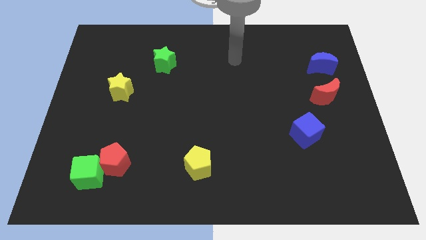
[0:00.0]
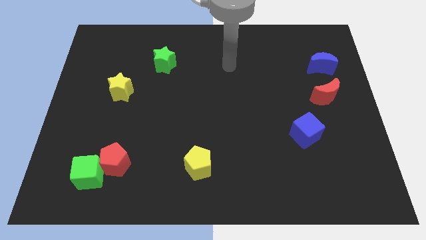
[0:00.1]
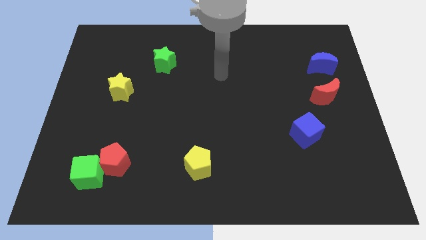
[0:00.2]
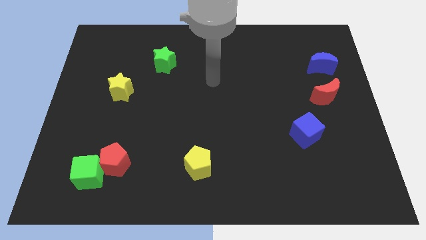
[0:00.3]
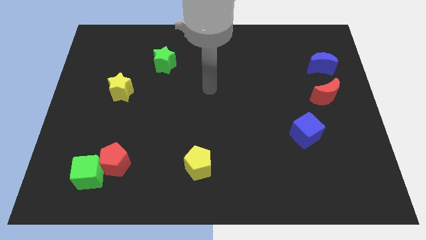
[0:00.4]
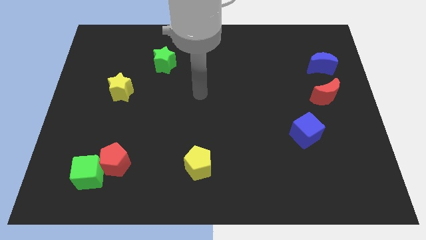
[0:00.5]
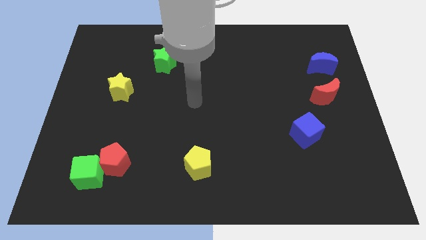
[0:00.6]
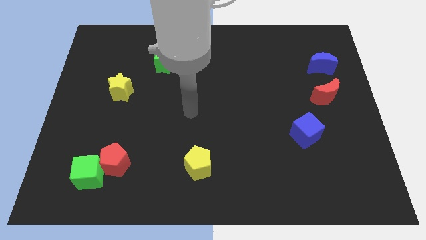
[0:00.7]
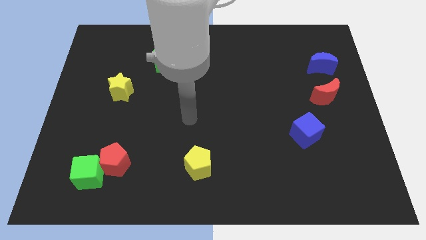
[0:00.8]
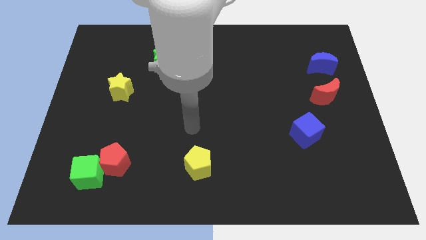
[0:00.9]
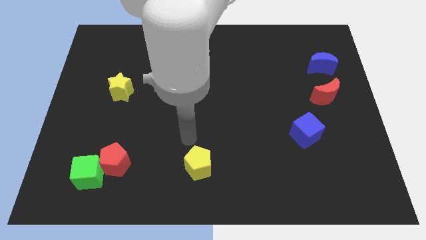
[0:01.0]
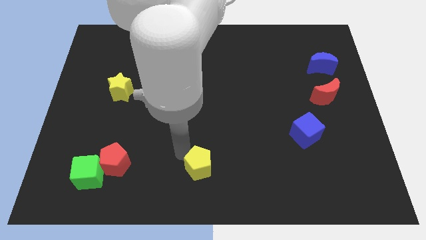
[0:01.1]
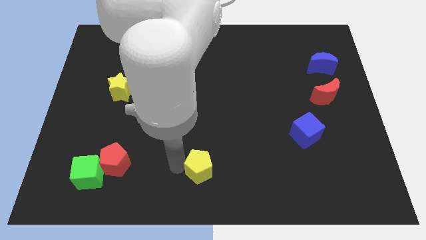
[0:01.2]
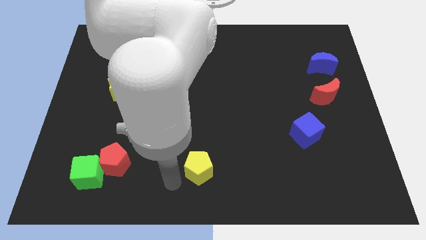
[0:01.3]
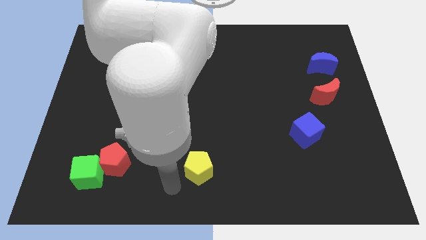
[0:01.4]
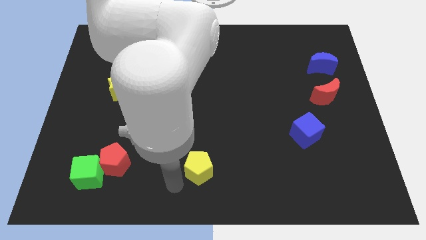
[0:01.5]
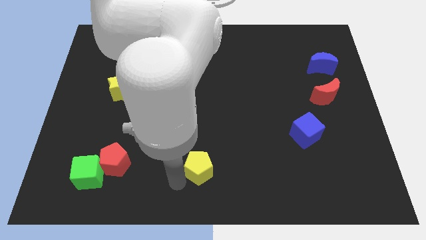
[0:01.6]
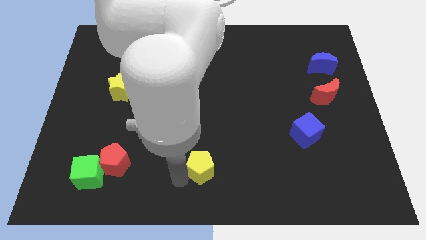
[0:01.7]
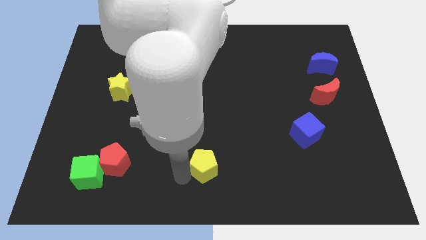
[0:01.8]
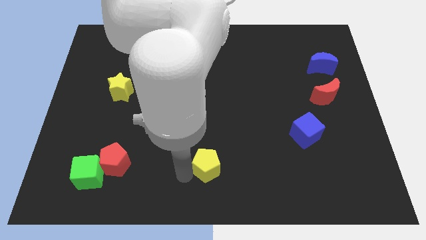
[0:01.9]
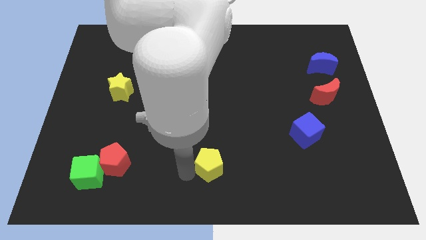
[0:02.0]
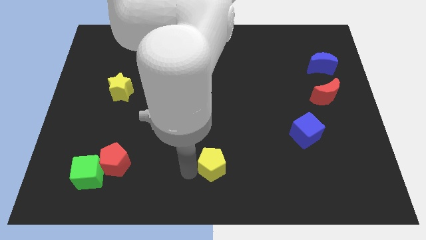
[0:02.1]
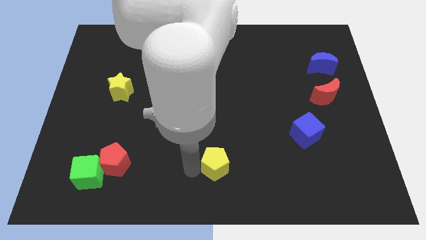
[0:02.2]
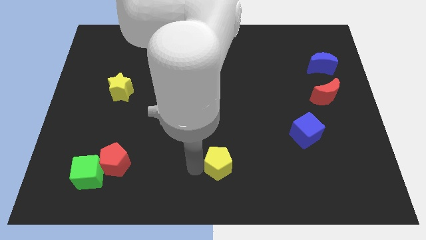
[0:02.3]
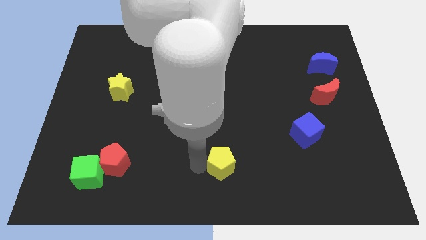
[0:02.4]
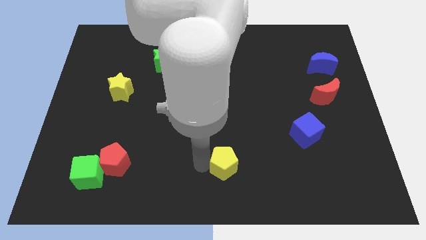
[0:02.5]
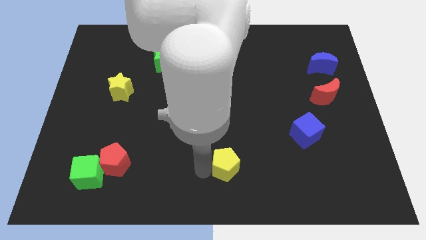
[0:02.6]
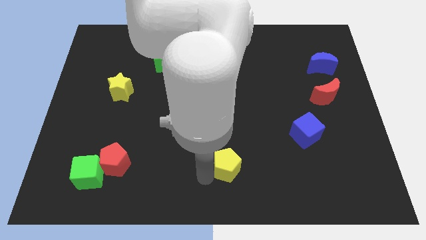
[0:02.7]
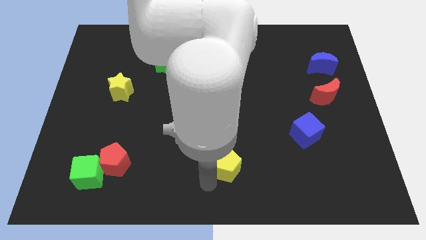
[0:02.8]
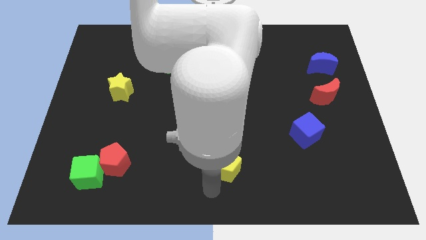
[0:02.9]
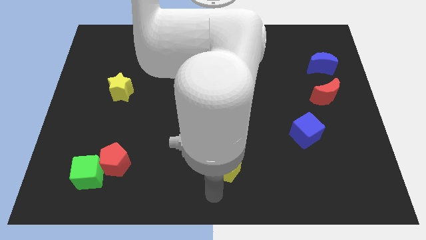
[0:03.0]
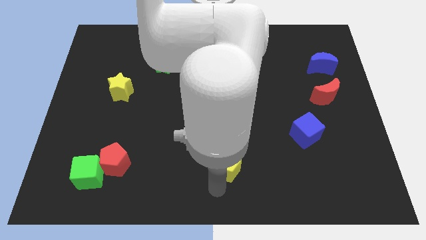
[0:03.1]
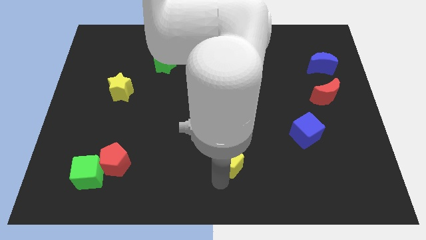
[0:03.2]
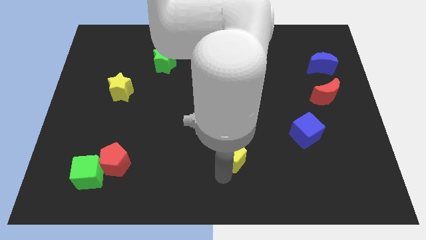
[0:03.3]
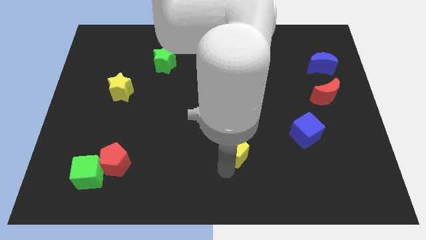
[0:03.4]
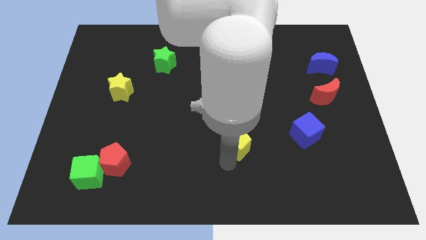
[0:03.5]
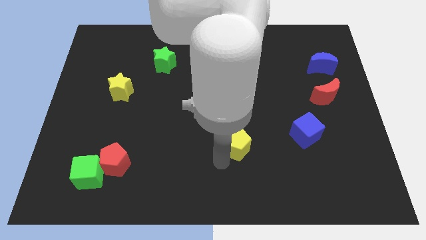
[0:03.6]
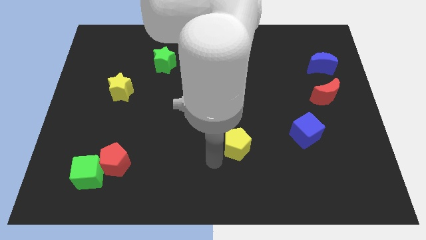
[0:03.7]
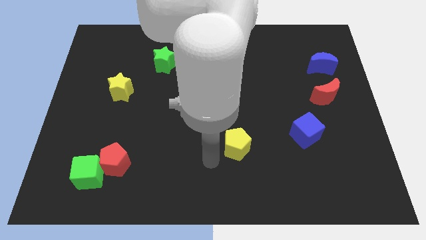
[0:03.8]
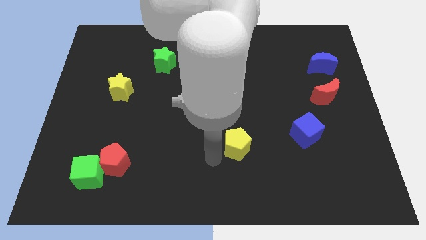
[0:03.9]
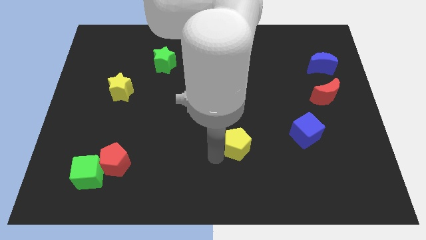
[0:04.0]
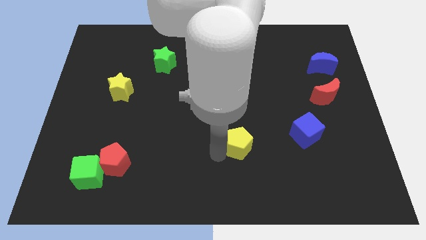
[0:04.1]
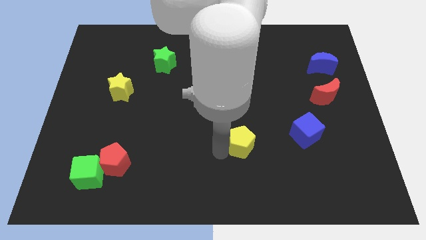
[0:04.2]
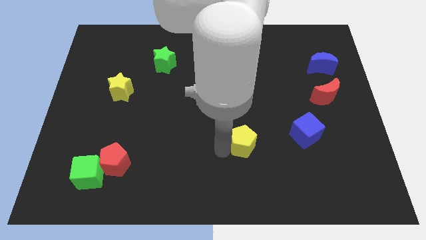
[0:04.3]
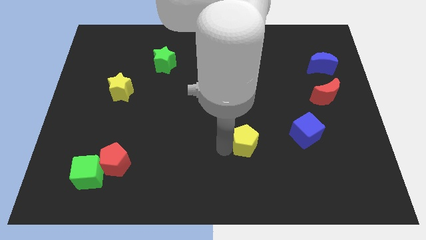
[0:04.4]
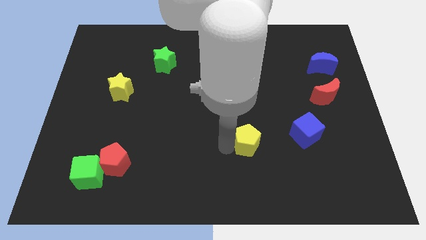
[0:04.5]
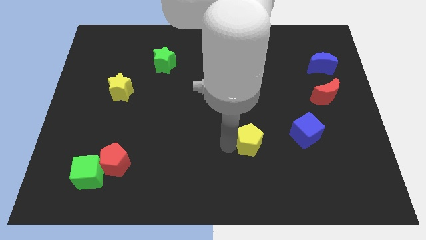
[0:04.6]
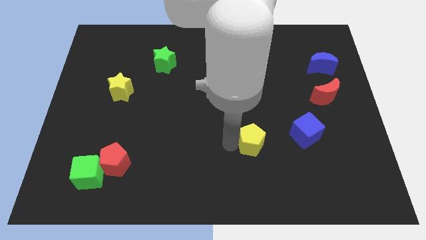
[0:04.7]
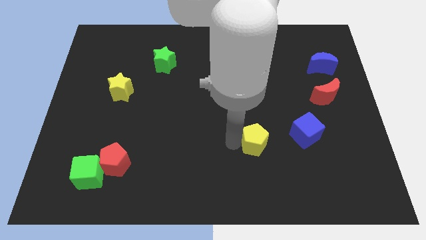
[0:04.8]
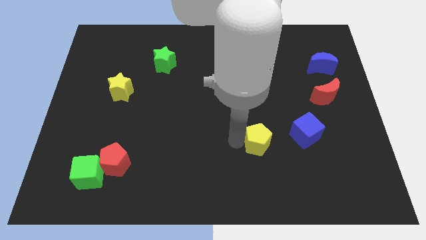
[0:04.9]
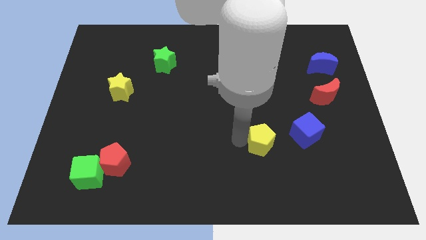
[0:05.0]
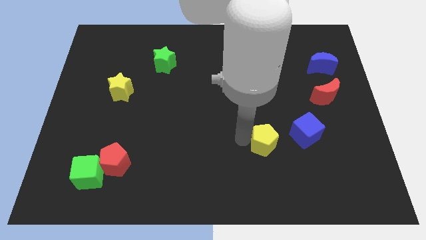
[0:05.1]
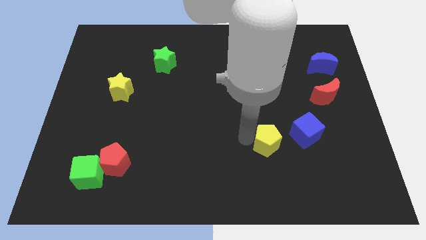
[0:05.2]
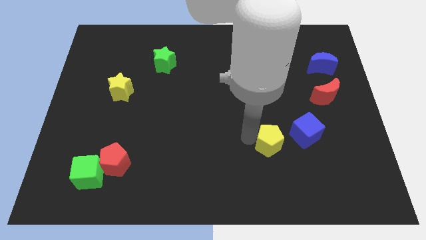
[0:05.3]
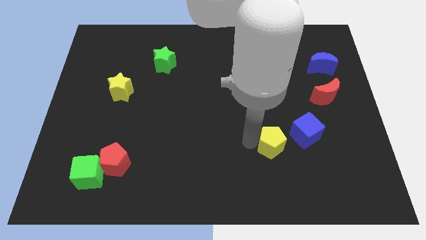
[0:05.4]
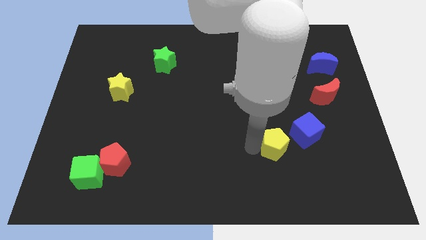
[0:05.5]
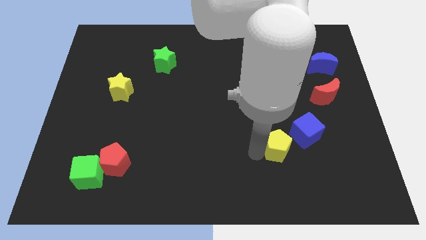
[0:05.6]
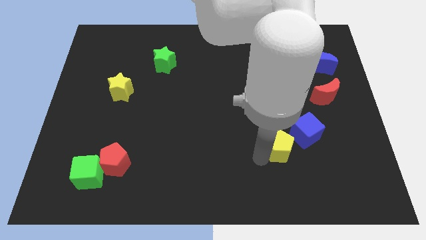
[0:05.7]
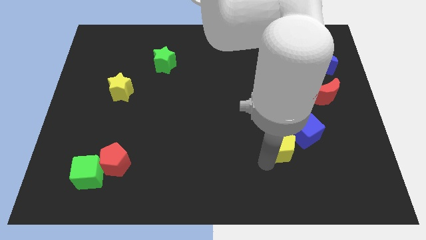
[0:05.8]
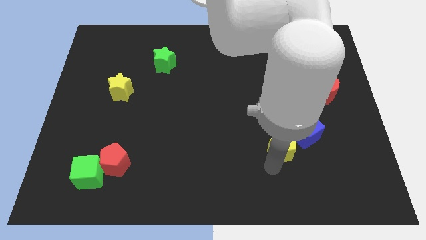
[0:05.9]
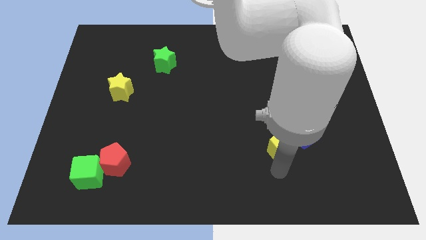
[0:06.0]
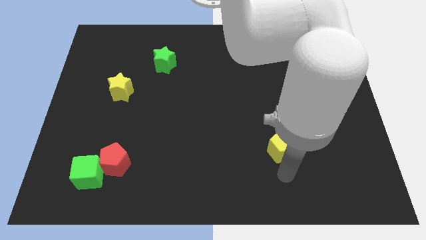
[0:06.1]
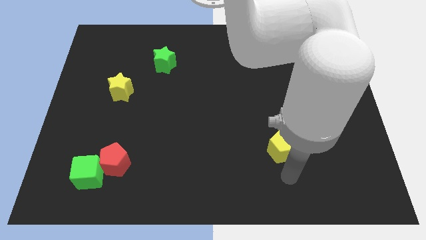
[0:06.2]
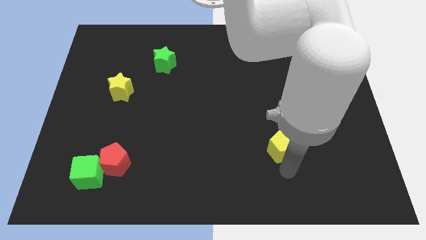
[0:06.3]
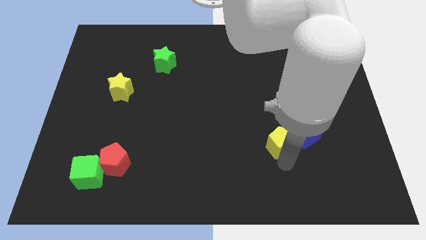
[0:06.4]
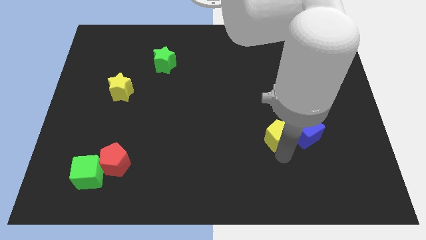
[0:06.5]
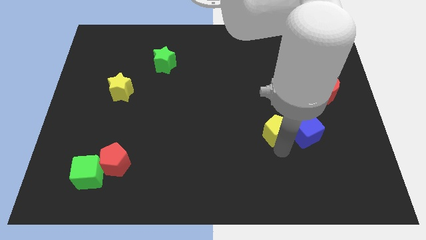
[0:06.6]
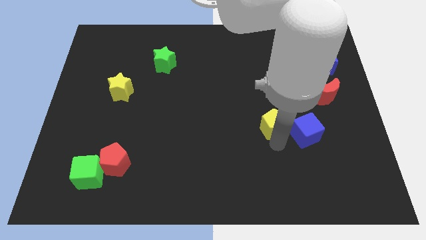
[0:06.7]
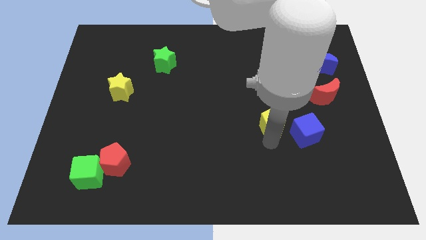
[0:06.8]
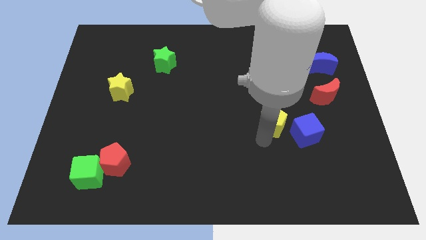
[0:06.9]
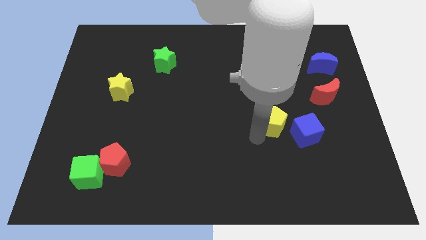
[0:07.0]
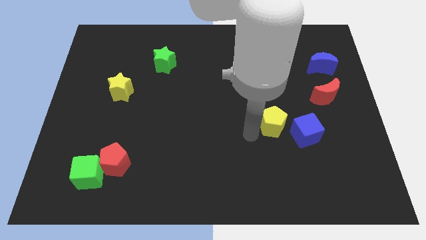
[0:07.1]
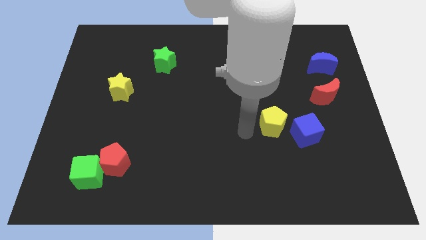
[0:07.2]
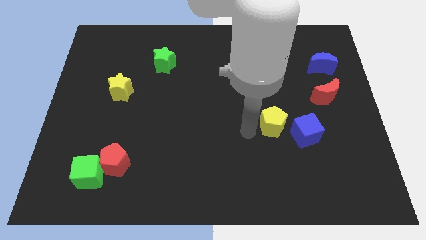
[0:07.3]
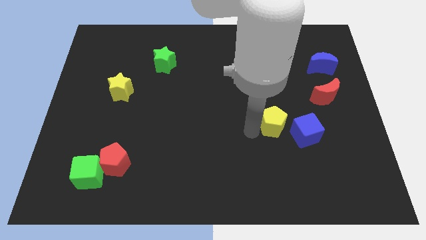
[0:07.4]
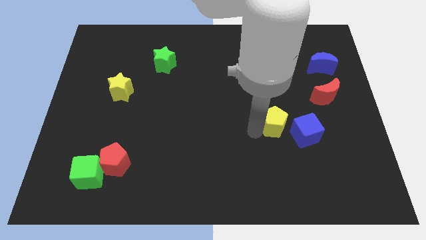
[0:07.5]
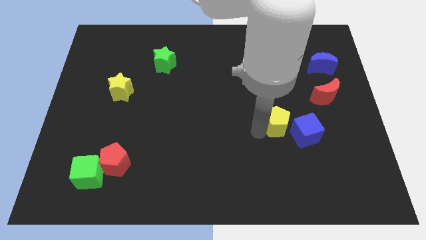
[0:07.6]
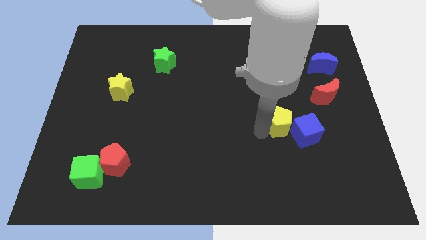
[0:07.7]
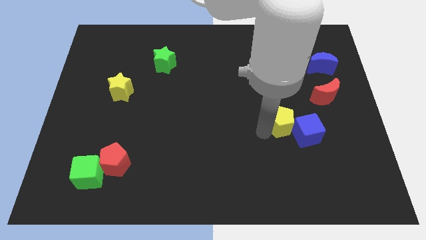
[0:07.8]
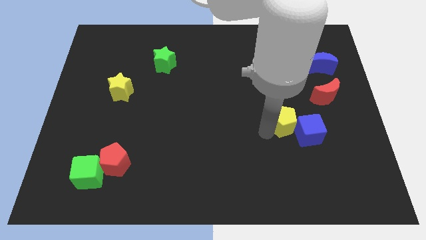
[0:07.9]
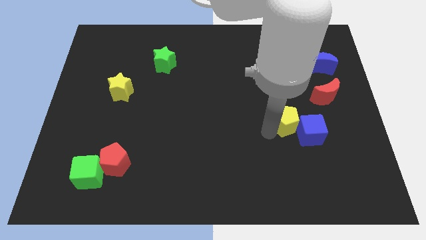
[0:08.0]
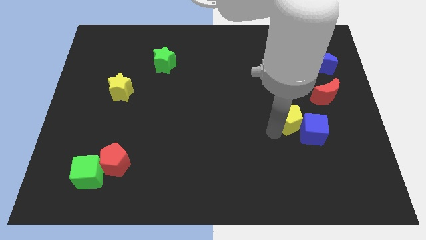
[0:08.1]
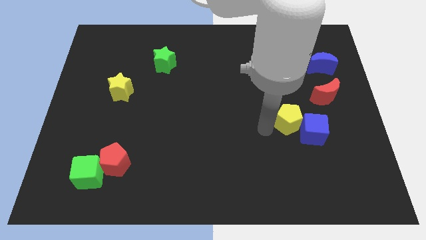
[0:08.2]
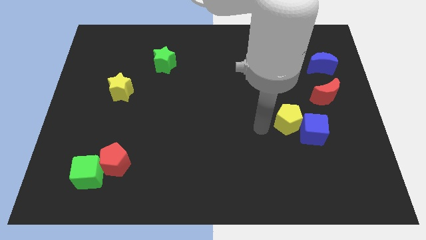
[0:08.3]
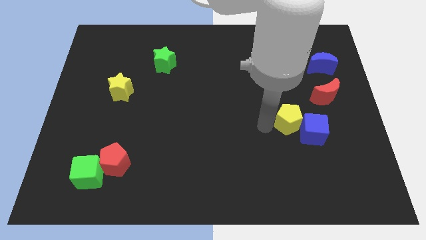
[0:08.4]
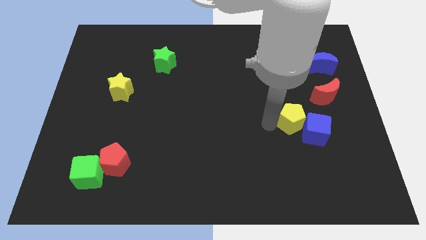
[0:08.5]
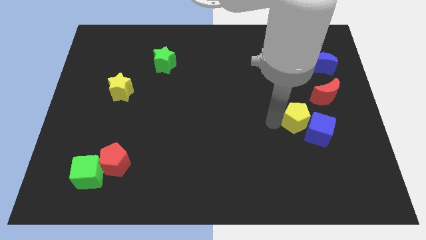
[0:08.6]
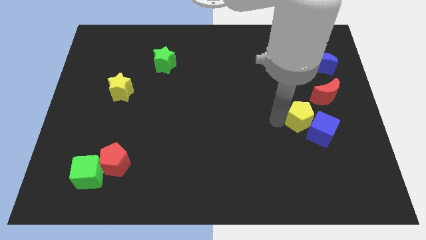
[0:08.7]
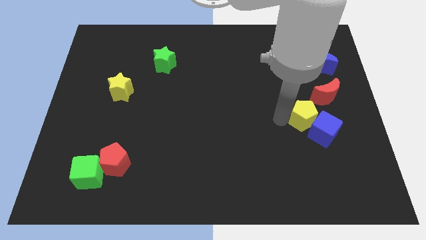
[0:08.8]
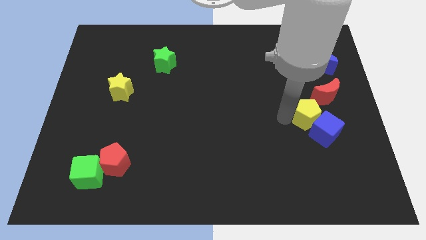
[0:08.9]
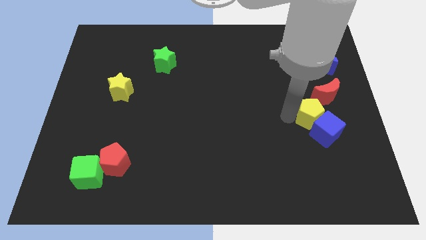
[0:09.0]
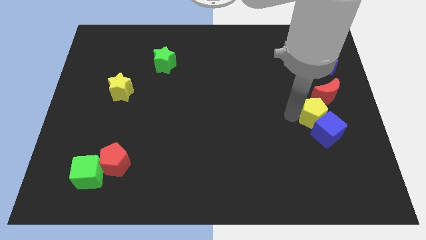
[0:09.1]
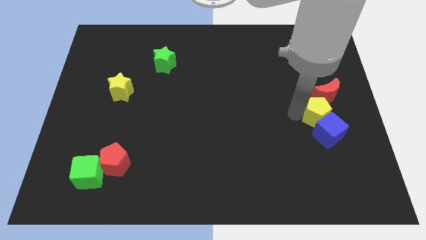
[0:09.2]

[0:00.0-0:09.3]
slide the yellow pentagon diagonally up and to the right of the blue cube
